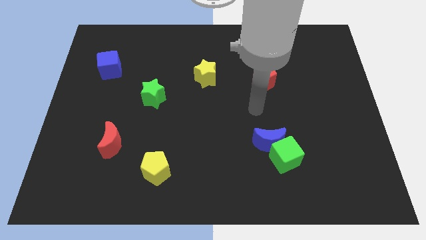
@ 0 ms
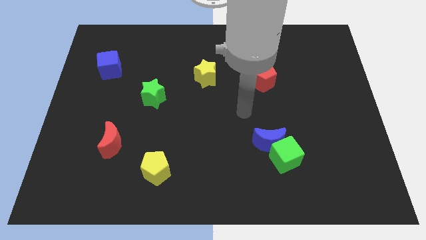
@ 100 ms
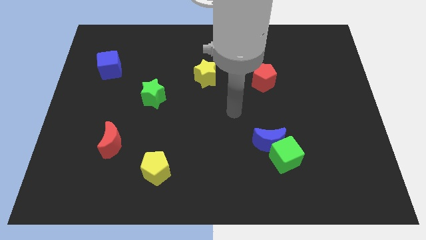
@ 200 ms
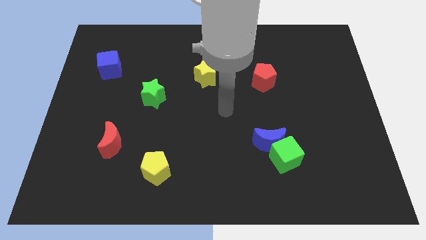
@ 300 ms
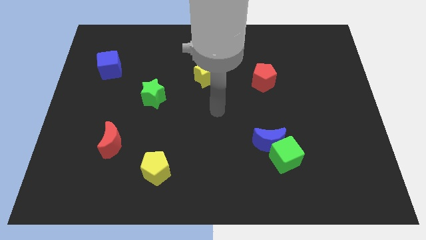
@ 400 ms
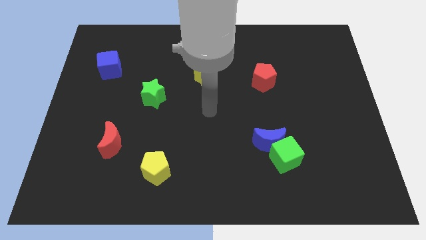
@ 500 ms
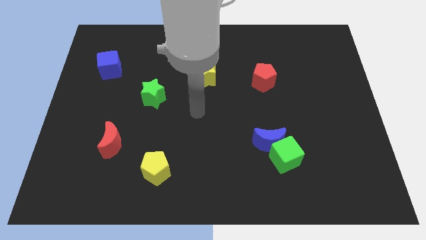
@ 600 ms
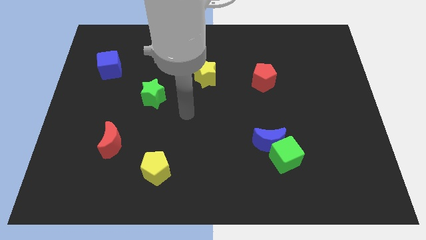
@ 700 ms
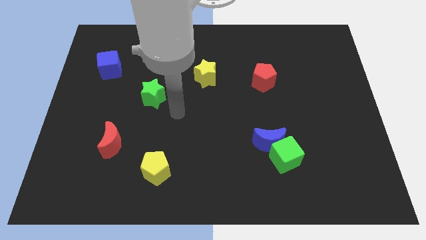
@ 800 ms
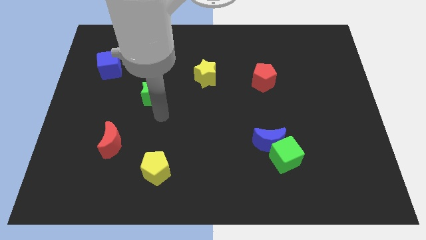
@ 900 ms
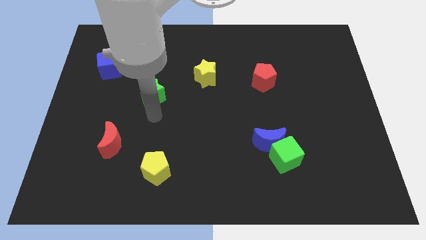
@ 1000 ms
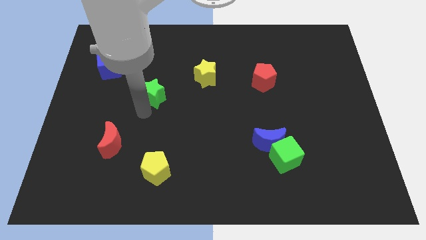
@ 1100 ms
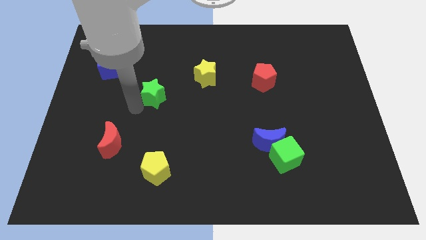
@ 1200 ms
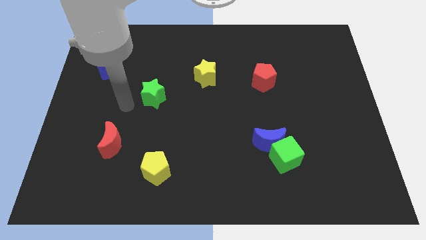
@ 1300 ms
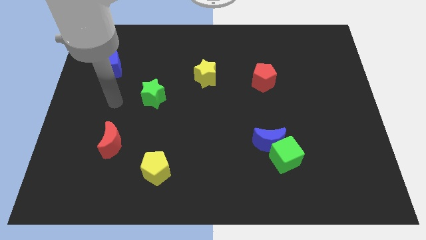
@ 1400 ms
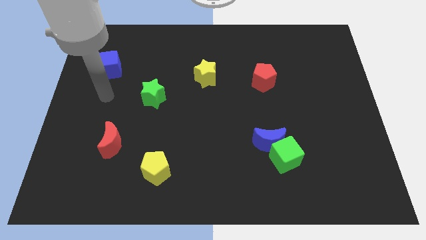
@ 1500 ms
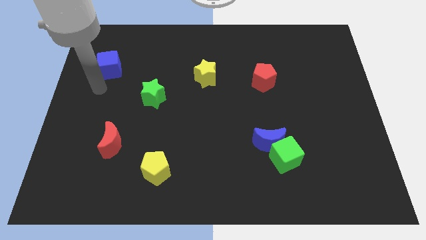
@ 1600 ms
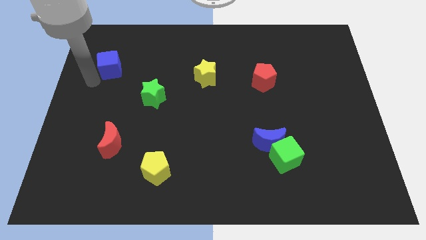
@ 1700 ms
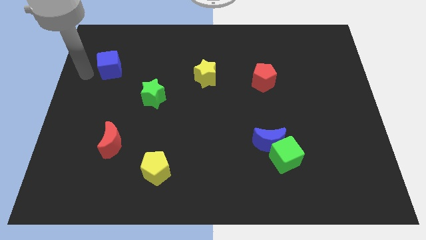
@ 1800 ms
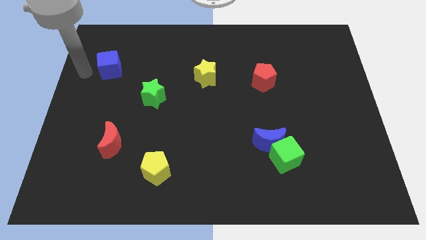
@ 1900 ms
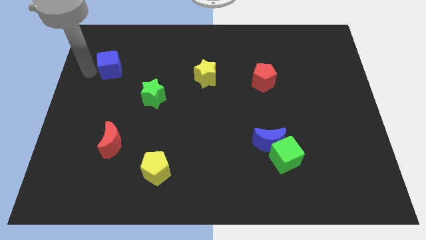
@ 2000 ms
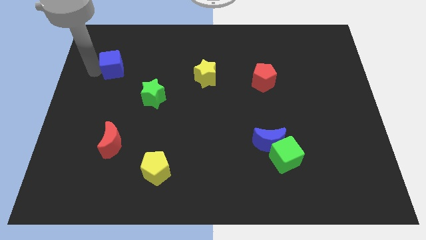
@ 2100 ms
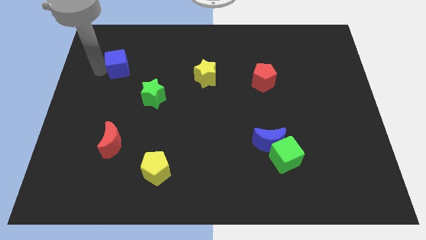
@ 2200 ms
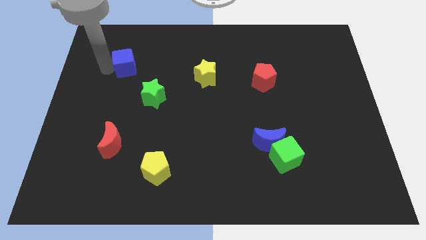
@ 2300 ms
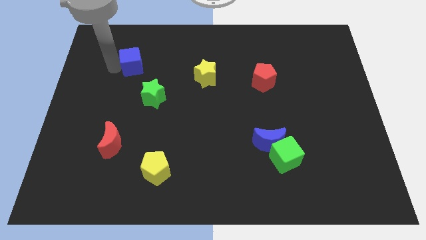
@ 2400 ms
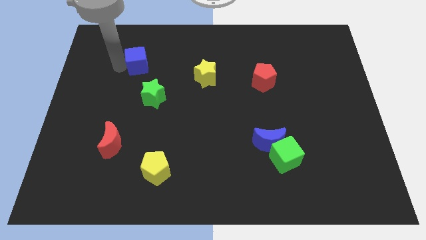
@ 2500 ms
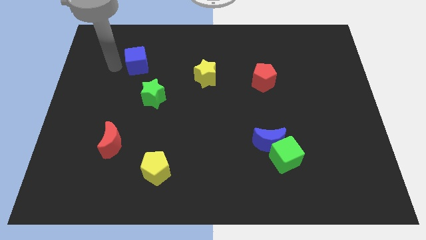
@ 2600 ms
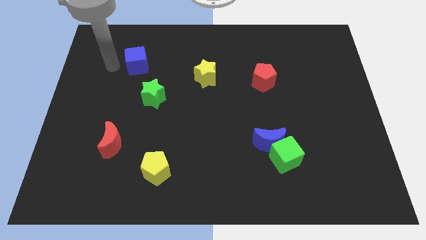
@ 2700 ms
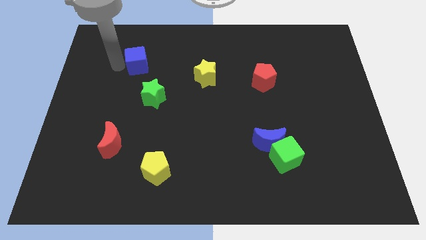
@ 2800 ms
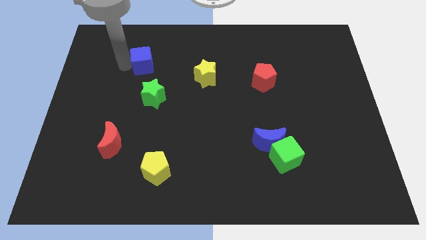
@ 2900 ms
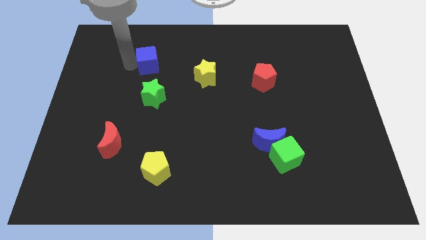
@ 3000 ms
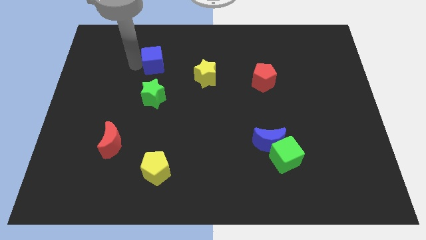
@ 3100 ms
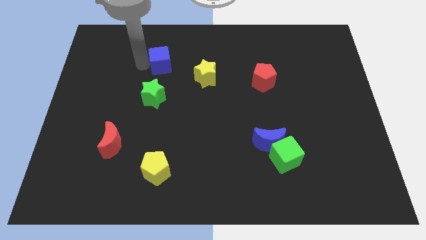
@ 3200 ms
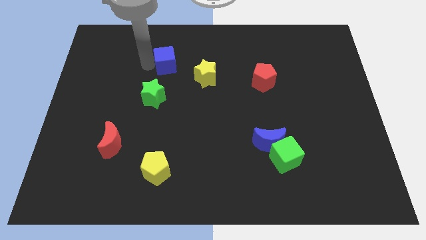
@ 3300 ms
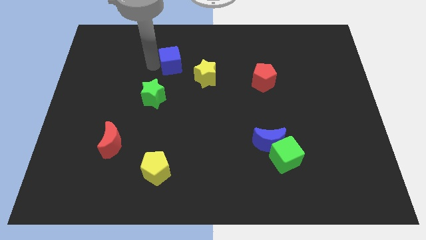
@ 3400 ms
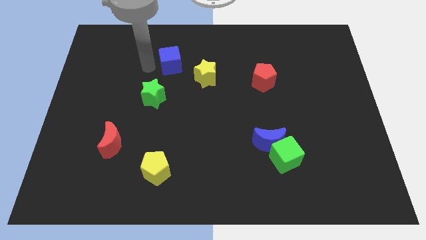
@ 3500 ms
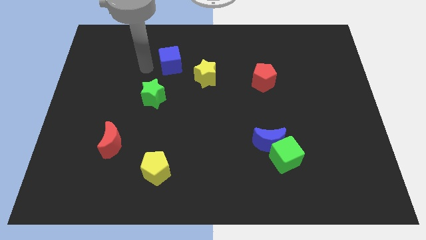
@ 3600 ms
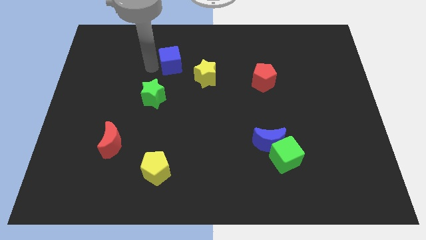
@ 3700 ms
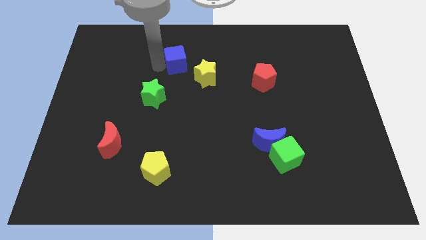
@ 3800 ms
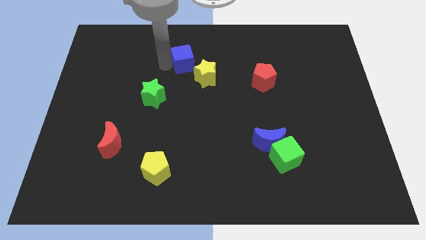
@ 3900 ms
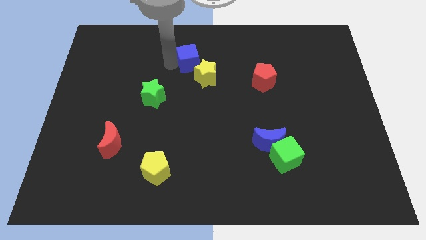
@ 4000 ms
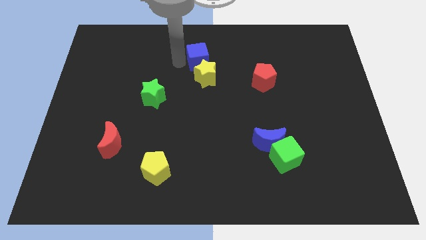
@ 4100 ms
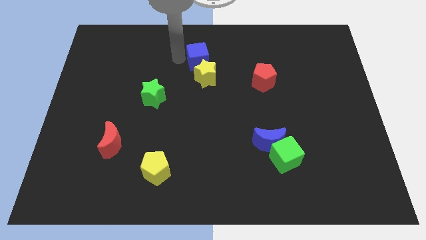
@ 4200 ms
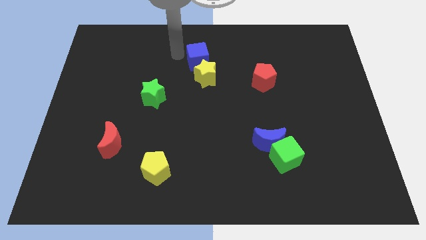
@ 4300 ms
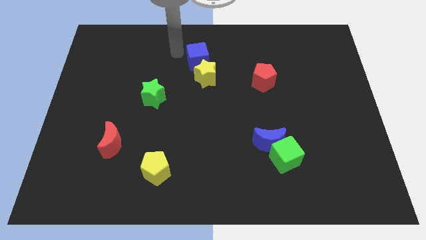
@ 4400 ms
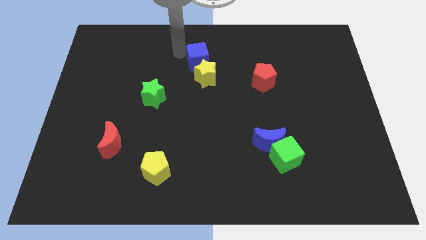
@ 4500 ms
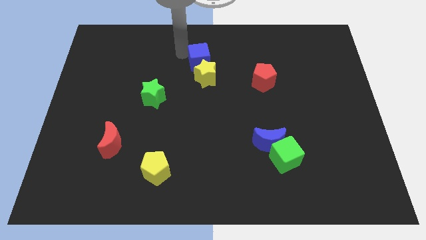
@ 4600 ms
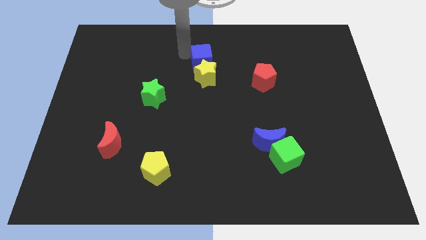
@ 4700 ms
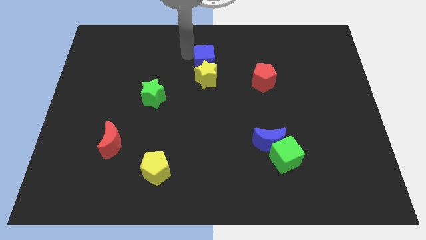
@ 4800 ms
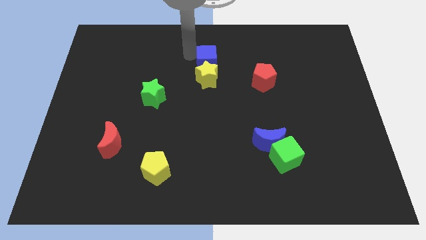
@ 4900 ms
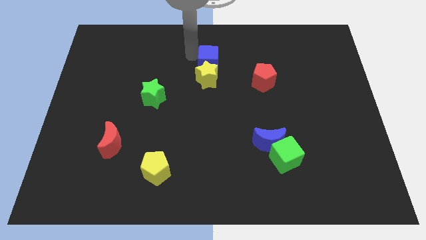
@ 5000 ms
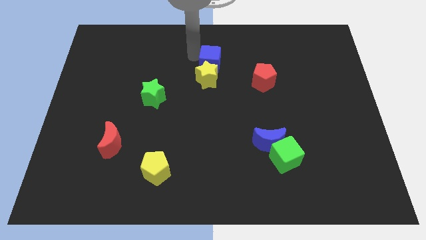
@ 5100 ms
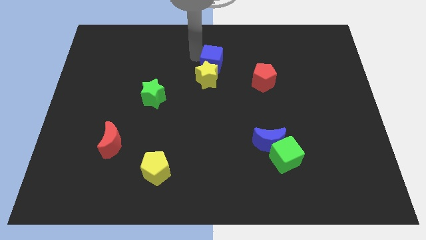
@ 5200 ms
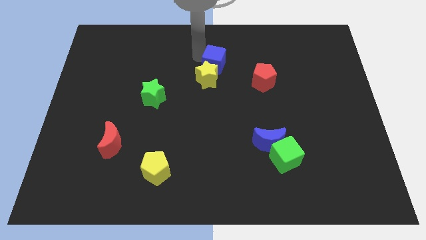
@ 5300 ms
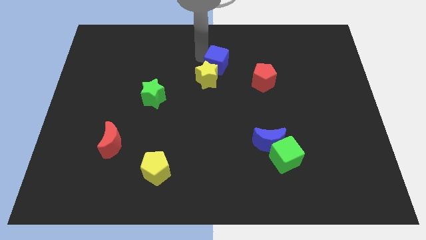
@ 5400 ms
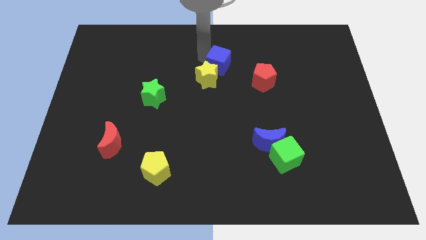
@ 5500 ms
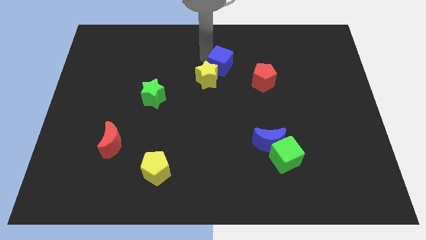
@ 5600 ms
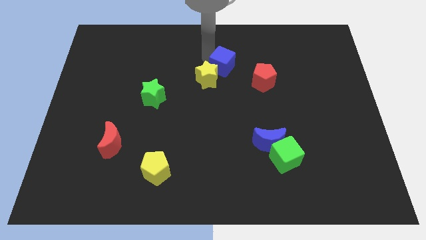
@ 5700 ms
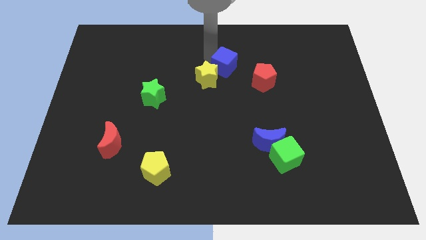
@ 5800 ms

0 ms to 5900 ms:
put the blue cube to the right of the yellow star

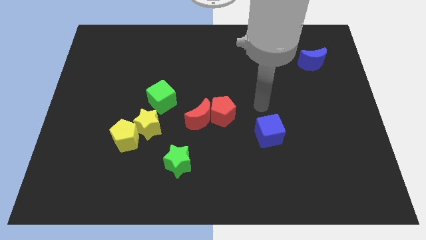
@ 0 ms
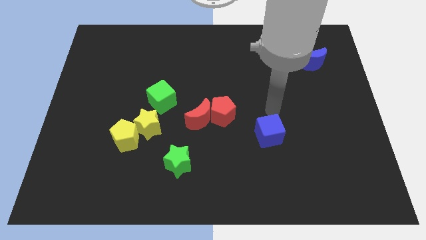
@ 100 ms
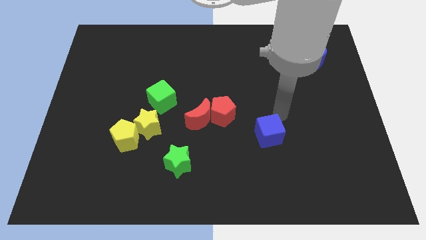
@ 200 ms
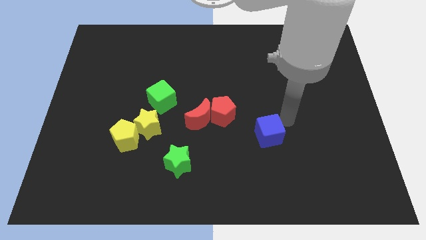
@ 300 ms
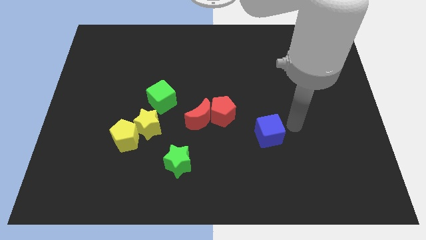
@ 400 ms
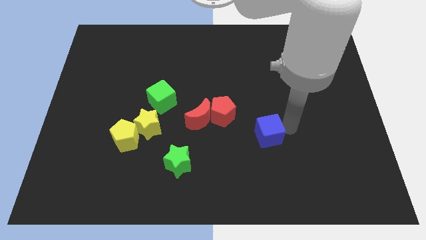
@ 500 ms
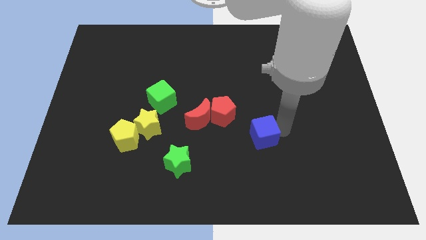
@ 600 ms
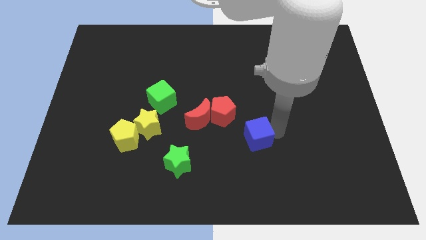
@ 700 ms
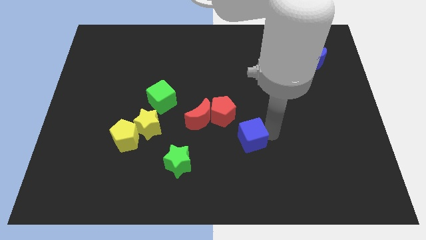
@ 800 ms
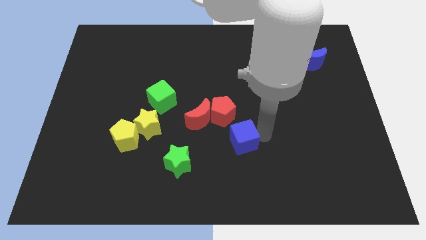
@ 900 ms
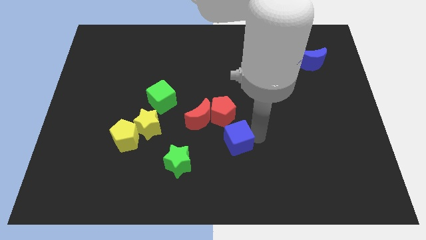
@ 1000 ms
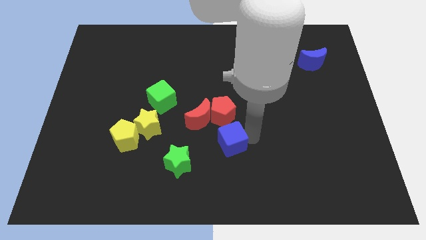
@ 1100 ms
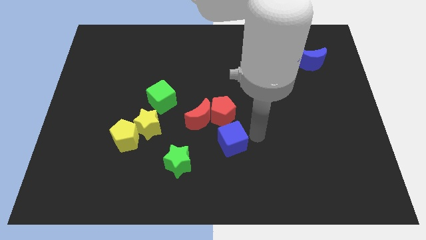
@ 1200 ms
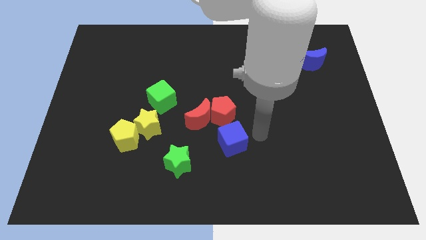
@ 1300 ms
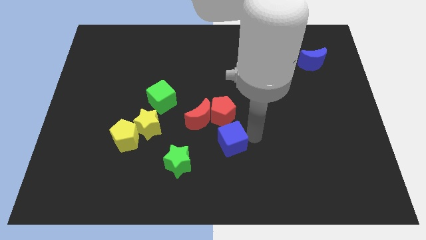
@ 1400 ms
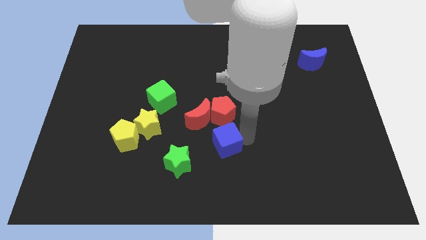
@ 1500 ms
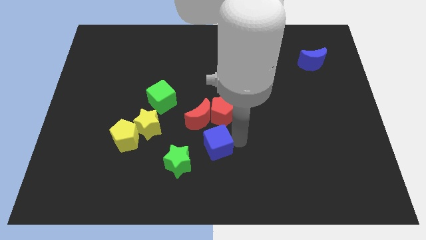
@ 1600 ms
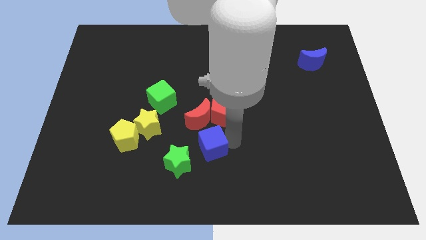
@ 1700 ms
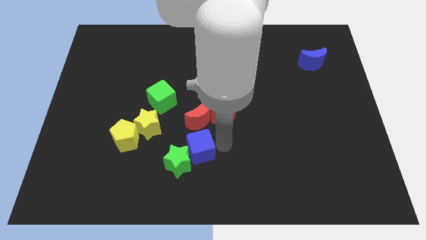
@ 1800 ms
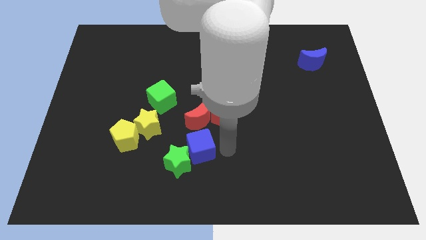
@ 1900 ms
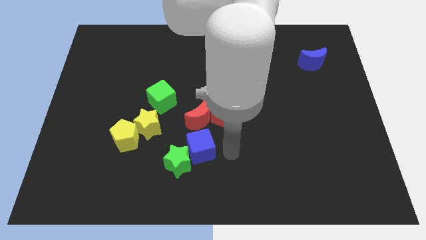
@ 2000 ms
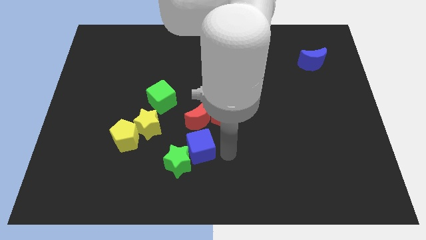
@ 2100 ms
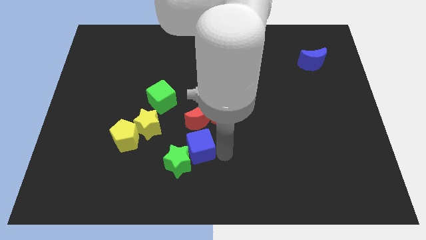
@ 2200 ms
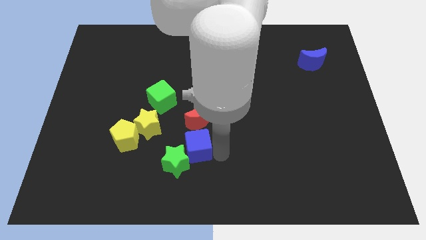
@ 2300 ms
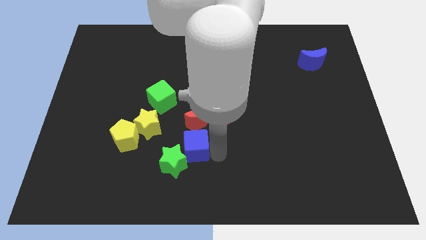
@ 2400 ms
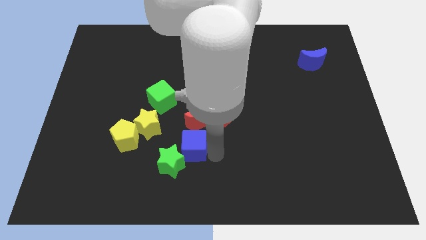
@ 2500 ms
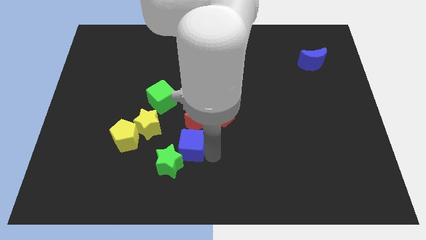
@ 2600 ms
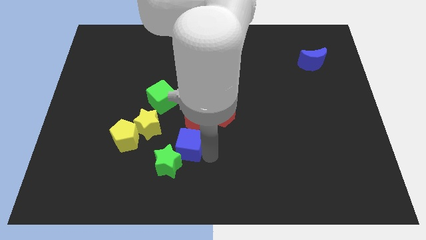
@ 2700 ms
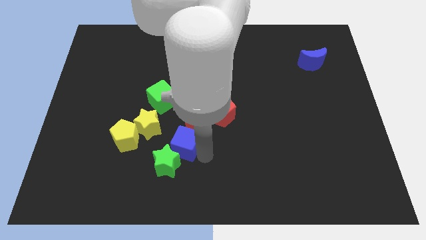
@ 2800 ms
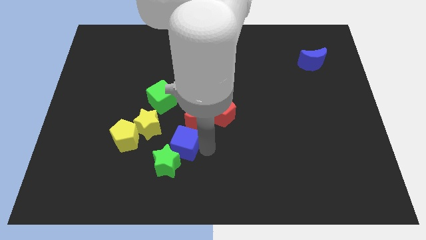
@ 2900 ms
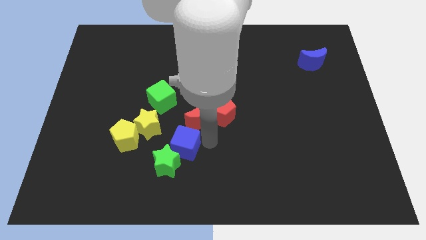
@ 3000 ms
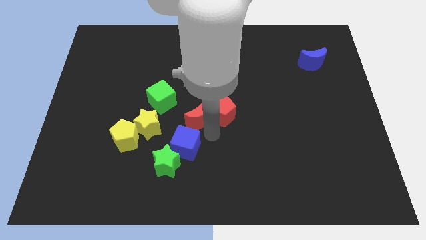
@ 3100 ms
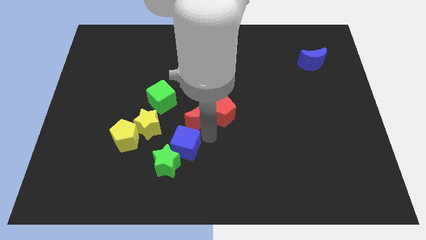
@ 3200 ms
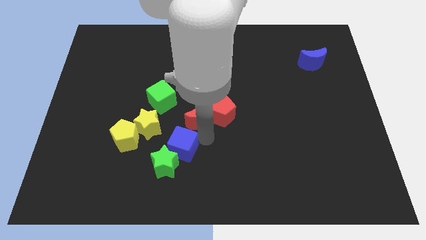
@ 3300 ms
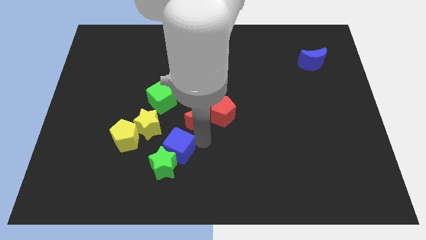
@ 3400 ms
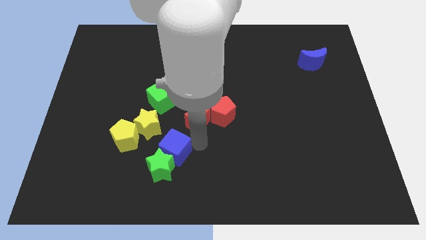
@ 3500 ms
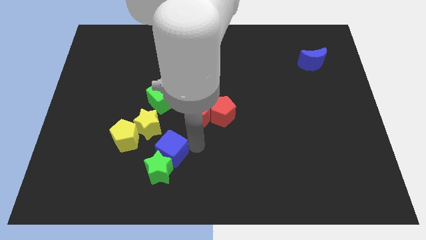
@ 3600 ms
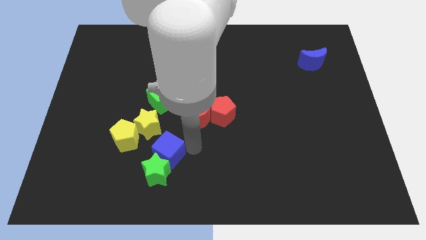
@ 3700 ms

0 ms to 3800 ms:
move the blue cube below the yellow star
